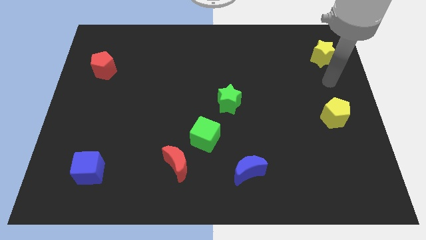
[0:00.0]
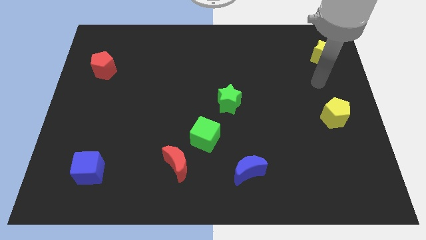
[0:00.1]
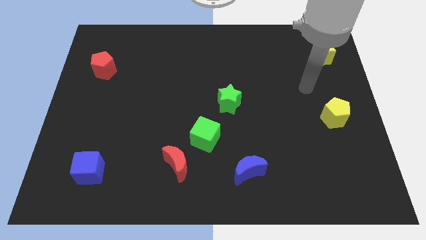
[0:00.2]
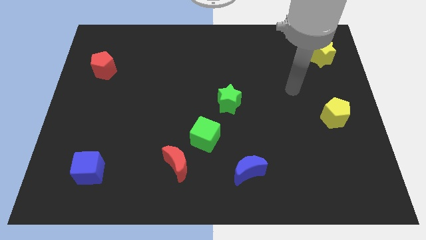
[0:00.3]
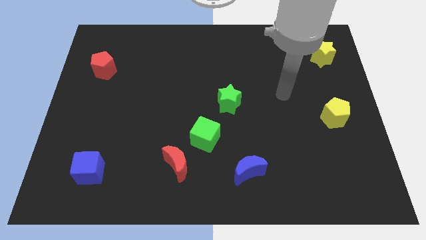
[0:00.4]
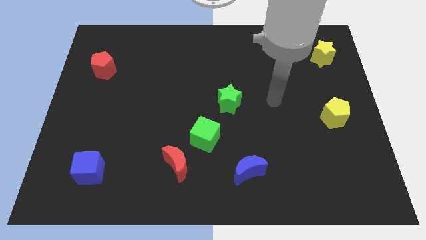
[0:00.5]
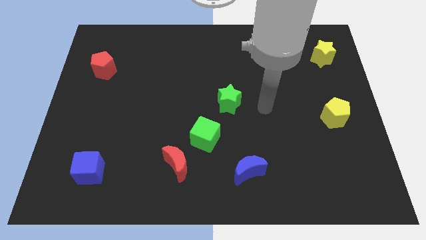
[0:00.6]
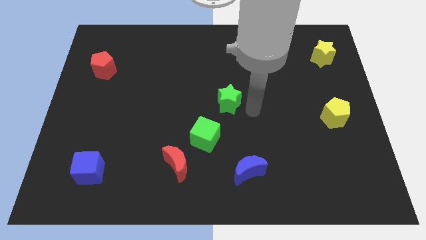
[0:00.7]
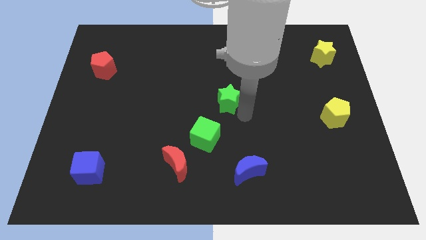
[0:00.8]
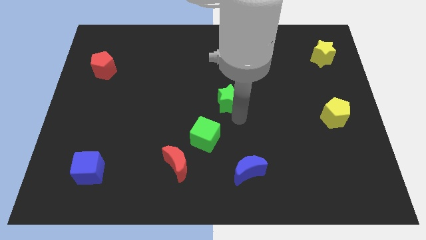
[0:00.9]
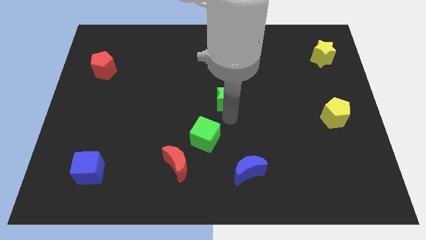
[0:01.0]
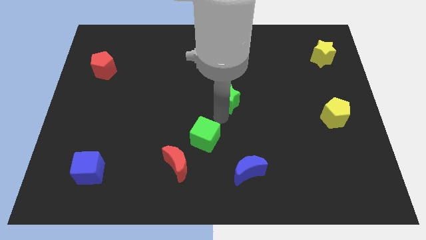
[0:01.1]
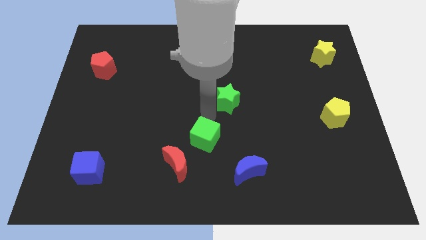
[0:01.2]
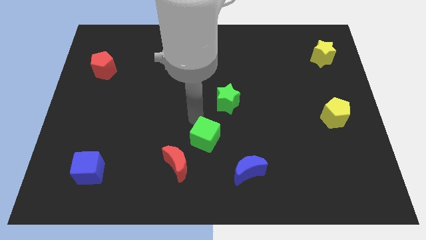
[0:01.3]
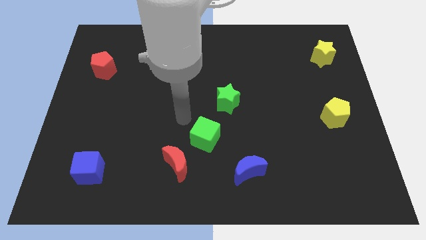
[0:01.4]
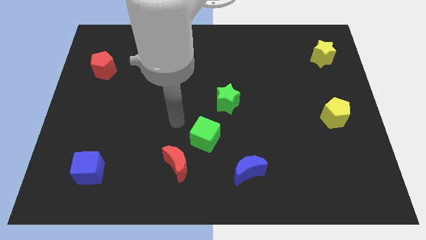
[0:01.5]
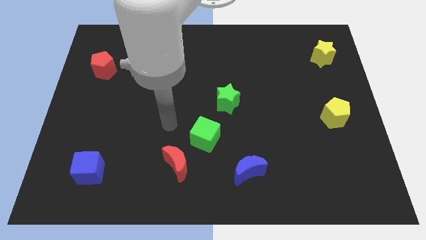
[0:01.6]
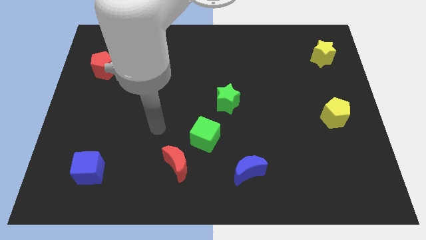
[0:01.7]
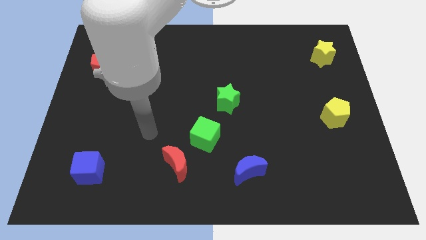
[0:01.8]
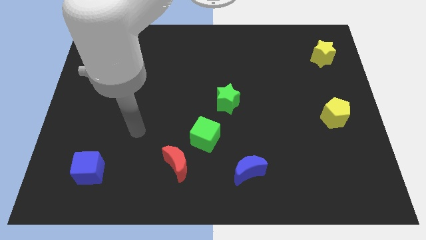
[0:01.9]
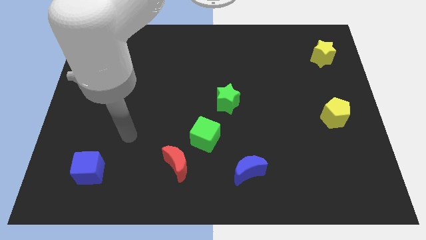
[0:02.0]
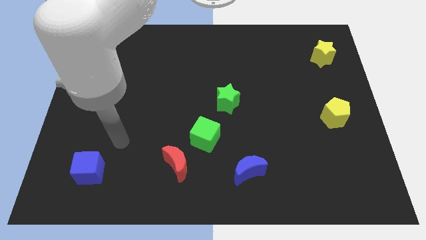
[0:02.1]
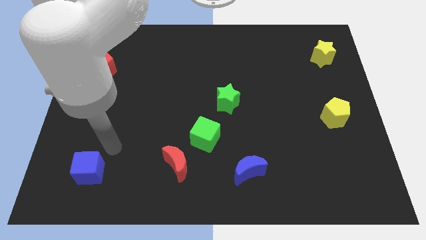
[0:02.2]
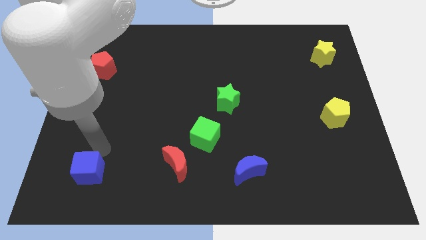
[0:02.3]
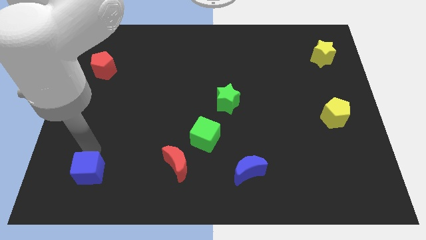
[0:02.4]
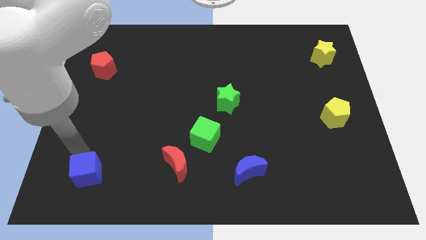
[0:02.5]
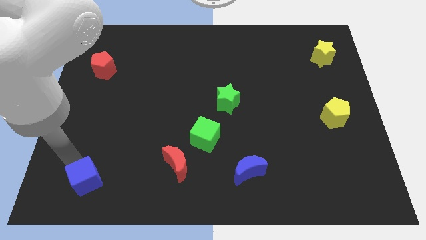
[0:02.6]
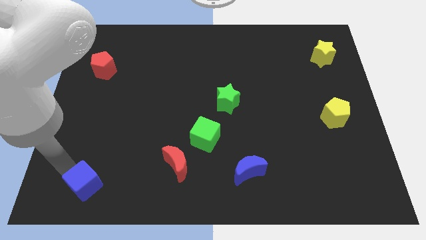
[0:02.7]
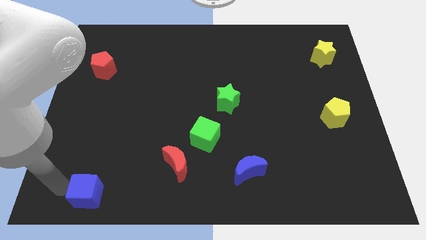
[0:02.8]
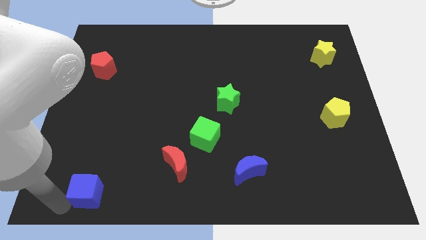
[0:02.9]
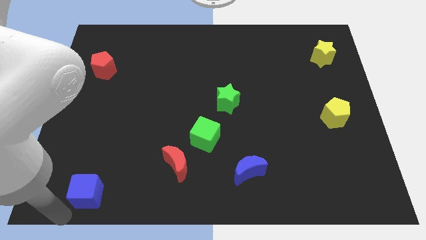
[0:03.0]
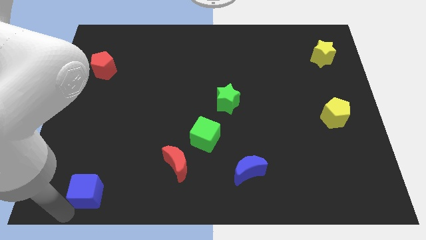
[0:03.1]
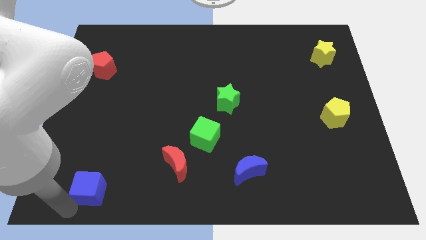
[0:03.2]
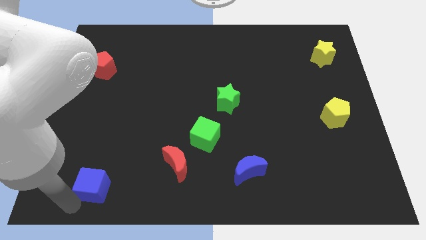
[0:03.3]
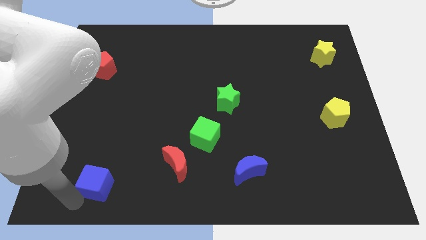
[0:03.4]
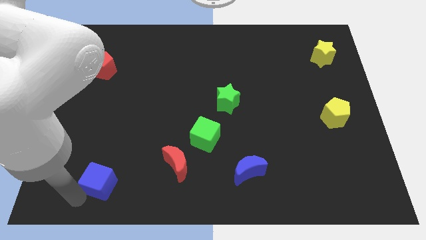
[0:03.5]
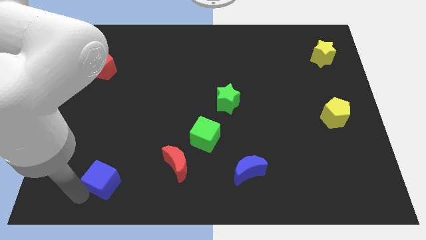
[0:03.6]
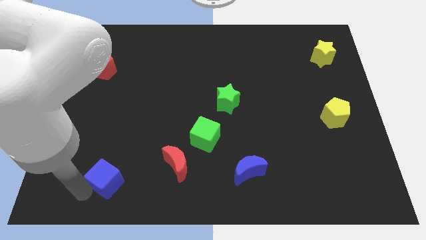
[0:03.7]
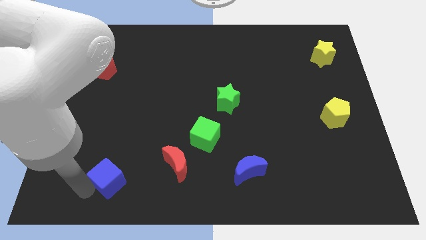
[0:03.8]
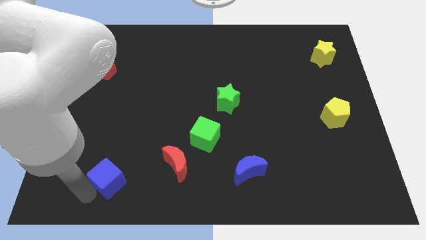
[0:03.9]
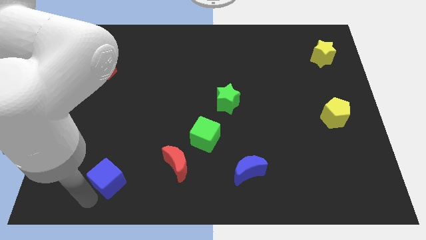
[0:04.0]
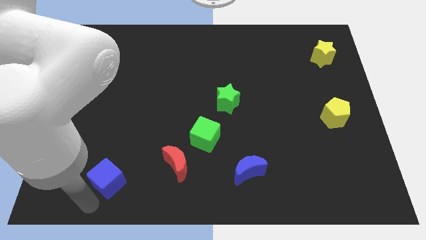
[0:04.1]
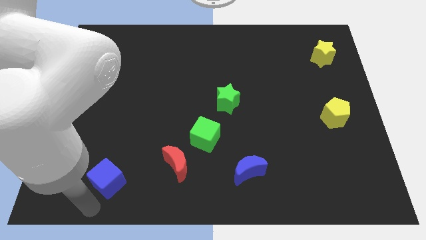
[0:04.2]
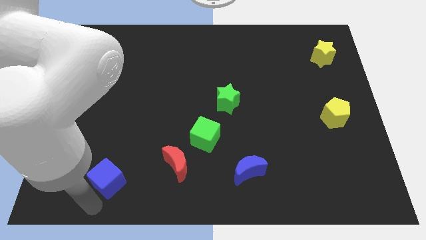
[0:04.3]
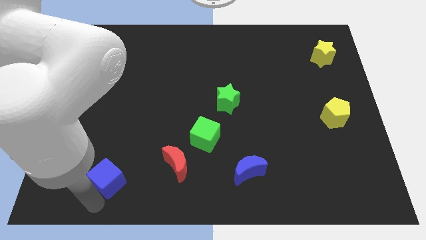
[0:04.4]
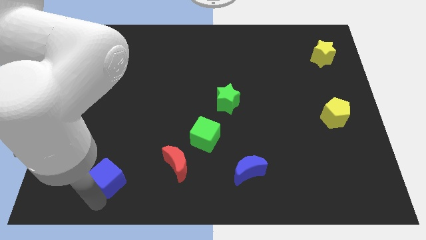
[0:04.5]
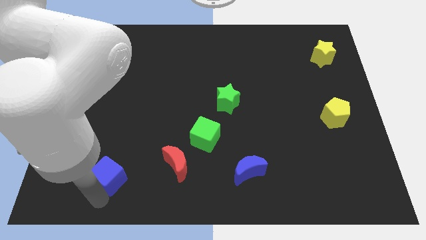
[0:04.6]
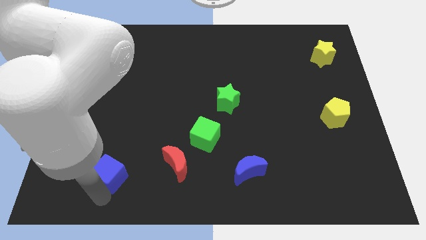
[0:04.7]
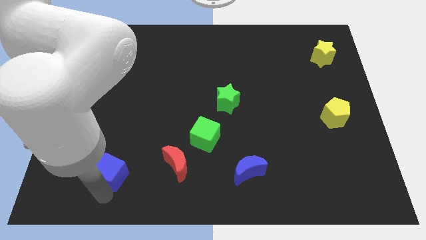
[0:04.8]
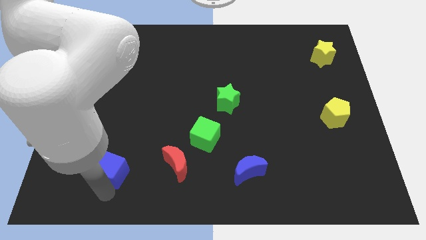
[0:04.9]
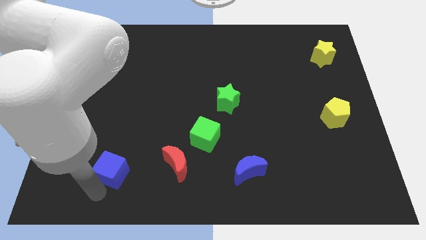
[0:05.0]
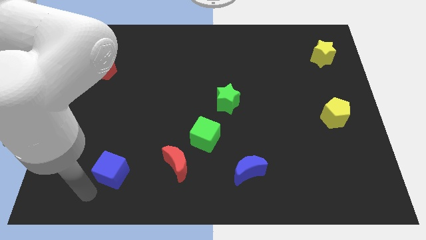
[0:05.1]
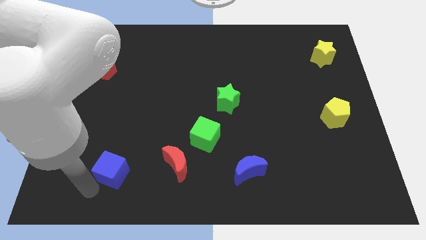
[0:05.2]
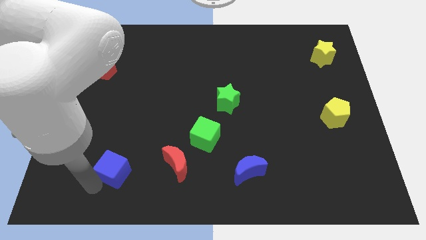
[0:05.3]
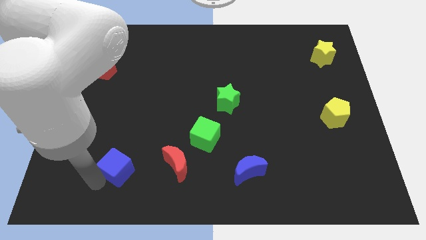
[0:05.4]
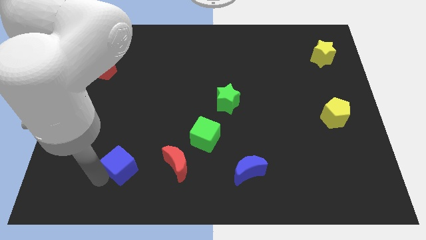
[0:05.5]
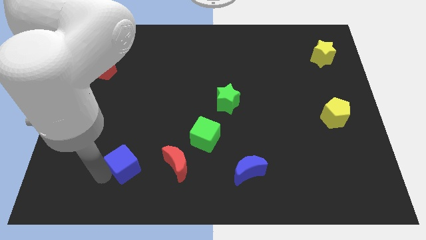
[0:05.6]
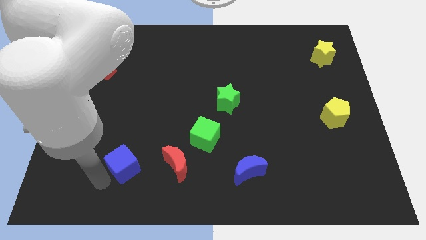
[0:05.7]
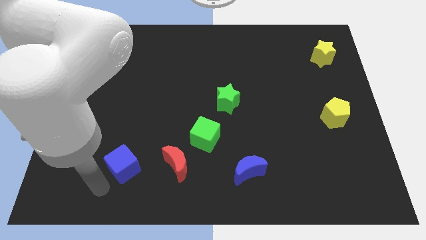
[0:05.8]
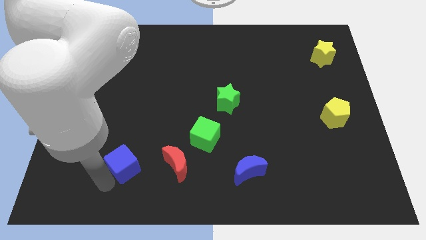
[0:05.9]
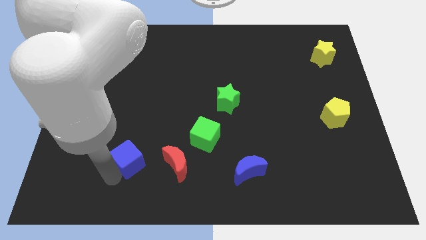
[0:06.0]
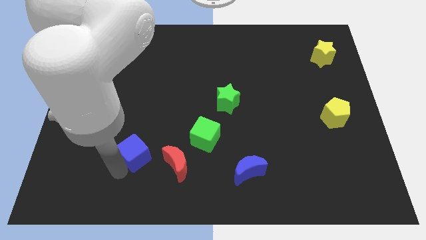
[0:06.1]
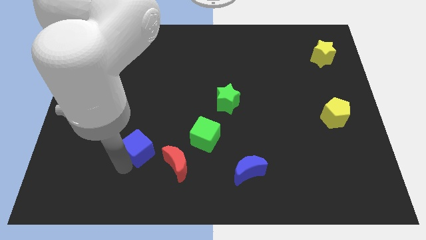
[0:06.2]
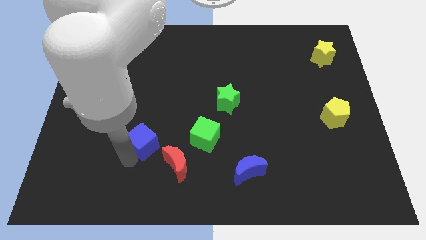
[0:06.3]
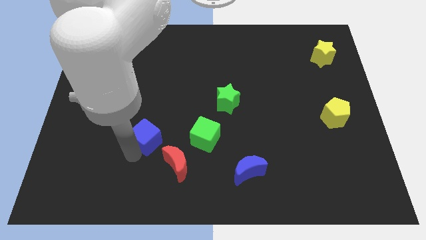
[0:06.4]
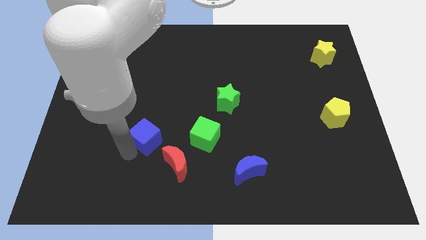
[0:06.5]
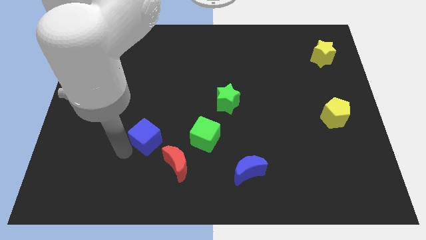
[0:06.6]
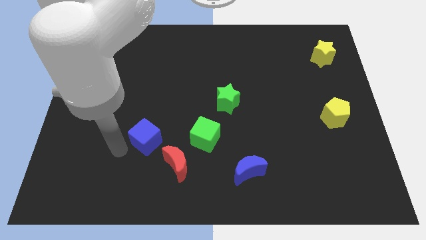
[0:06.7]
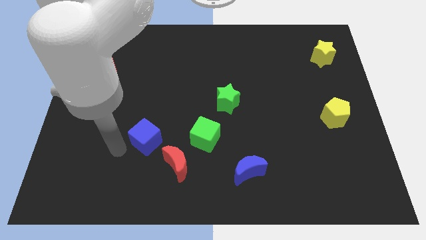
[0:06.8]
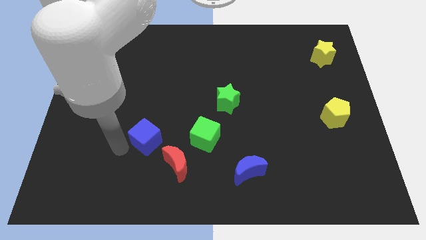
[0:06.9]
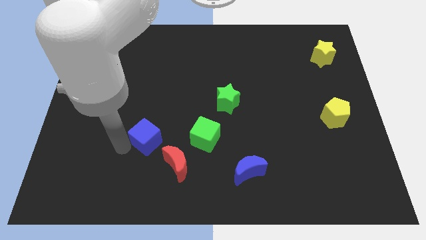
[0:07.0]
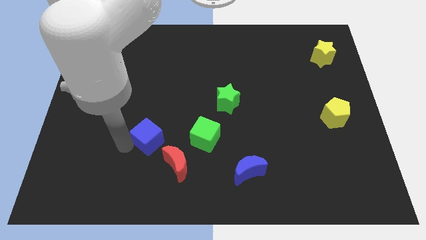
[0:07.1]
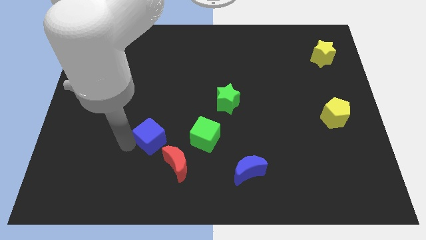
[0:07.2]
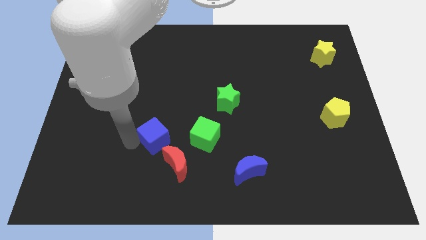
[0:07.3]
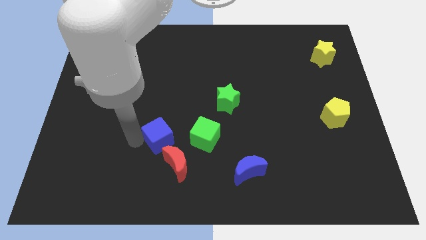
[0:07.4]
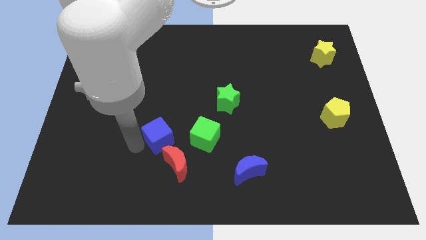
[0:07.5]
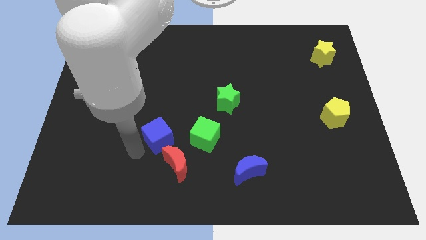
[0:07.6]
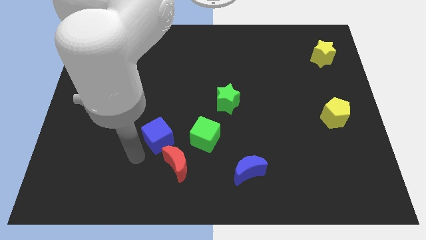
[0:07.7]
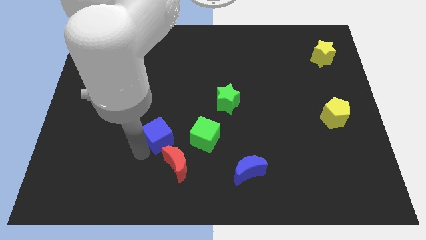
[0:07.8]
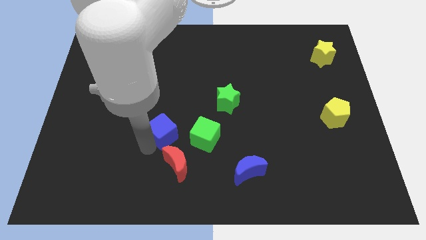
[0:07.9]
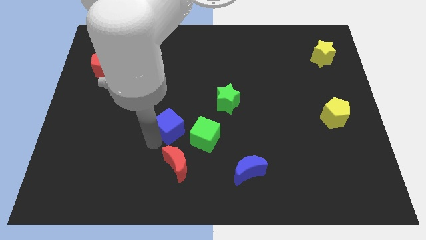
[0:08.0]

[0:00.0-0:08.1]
slide the blue cube to the top left side of the green cube

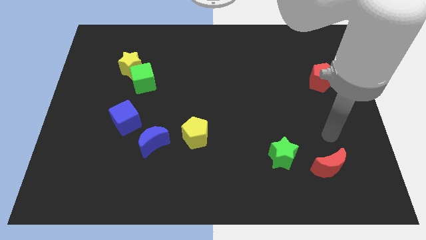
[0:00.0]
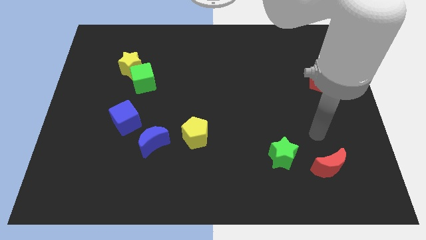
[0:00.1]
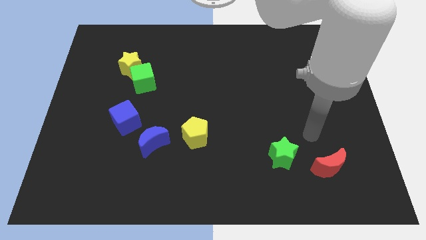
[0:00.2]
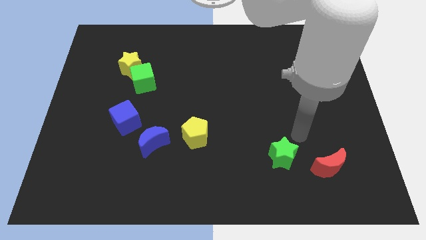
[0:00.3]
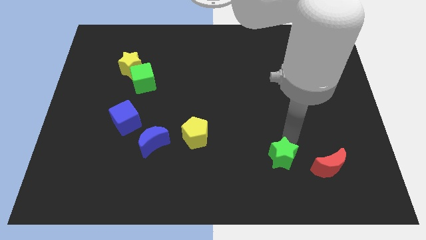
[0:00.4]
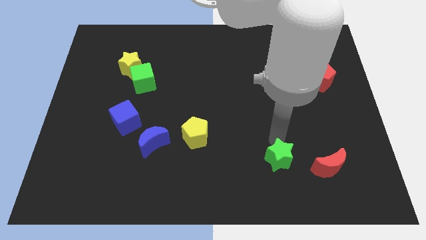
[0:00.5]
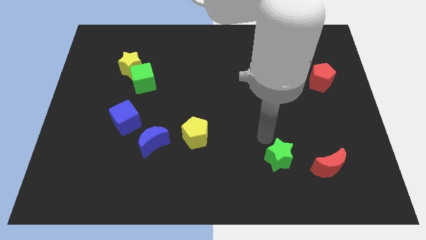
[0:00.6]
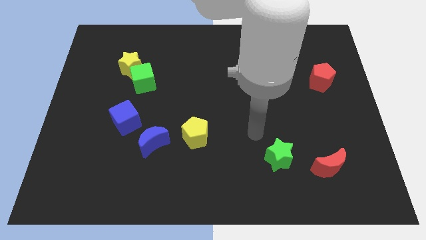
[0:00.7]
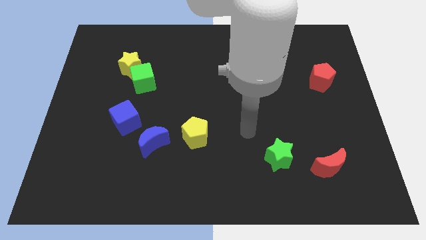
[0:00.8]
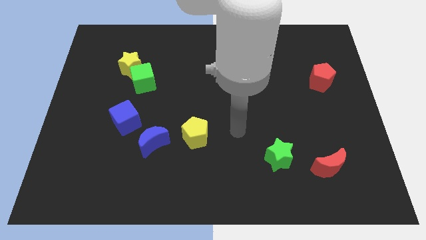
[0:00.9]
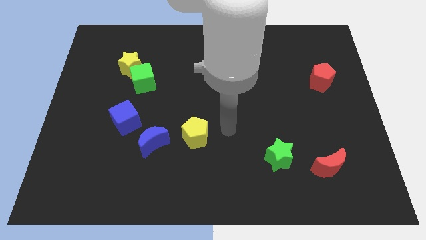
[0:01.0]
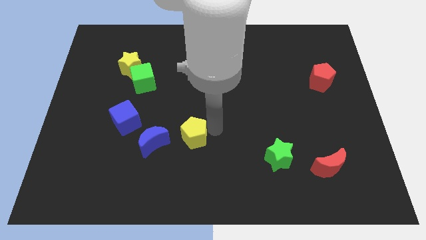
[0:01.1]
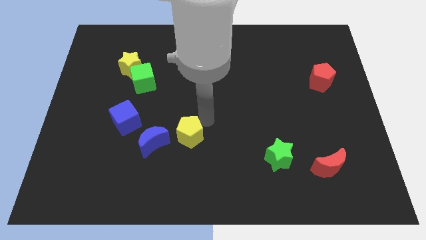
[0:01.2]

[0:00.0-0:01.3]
slide the blue moon to the bottom left side of the yellow pentagon
